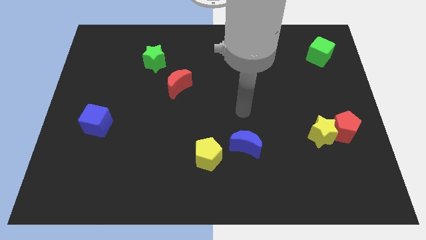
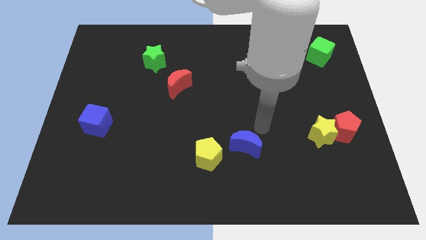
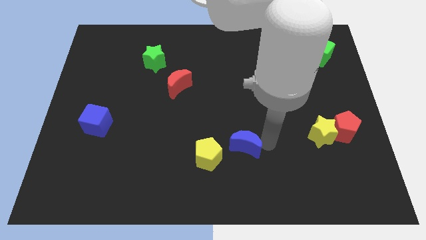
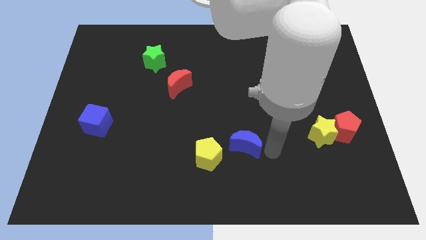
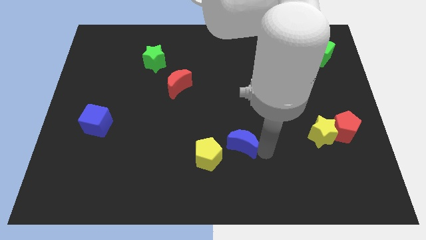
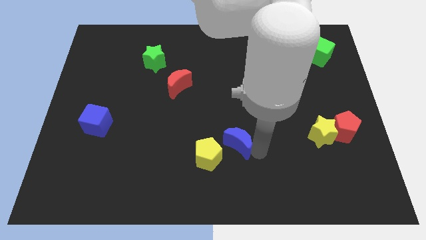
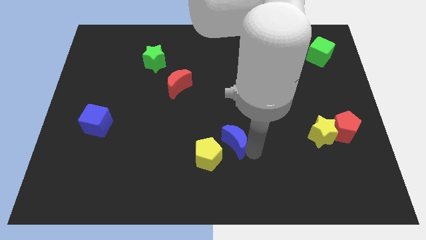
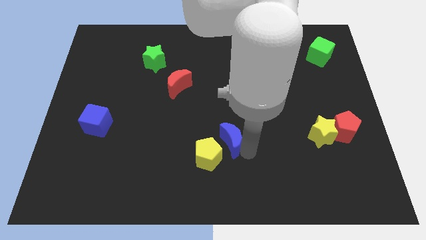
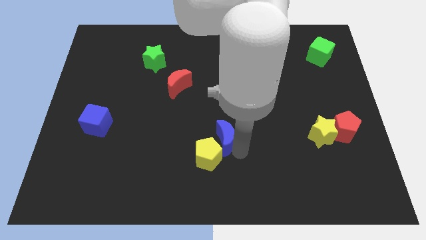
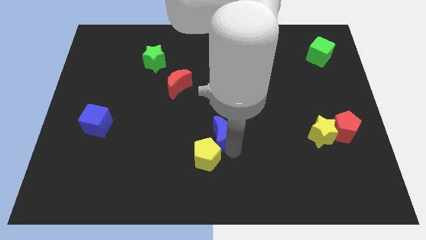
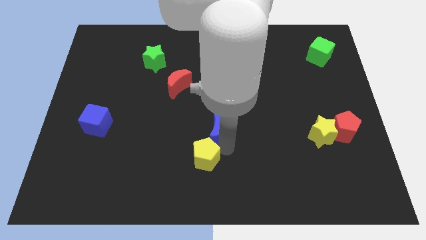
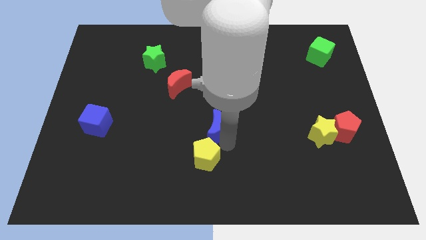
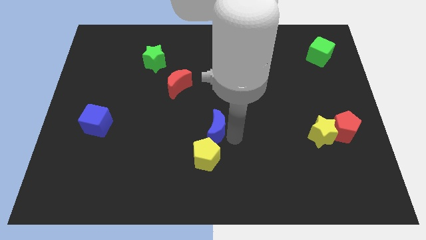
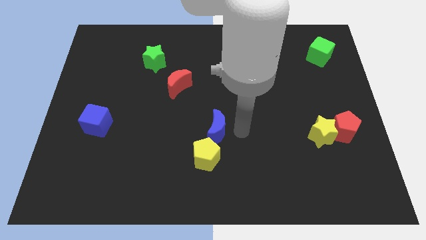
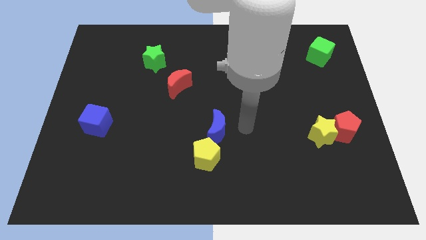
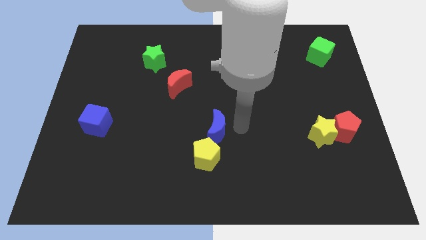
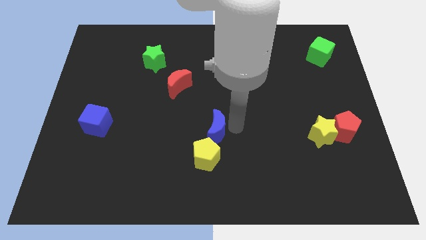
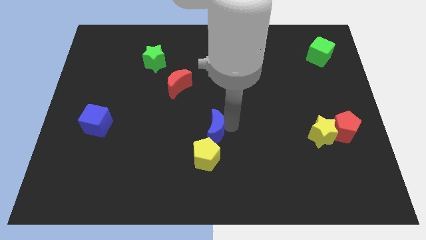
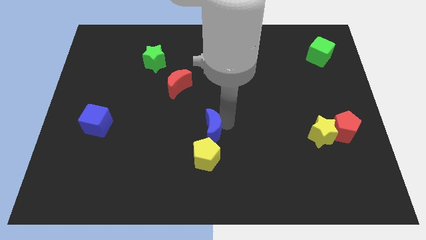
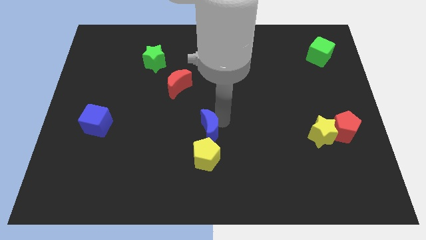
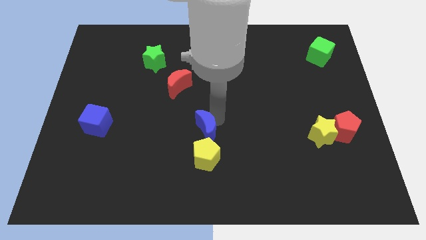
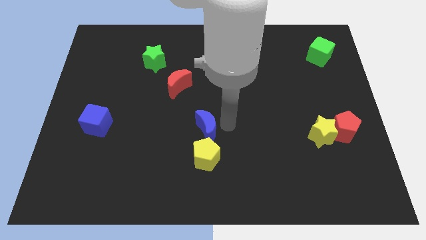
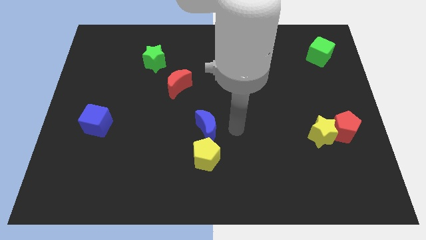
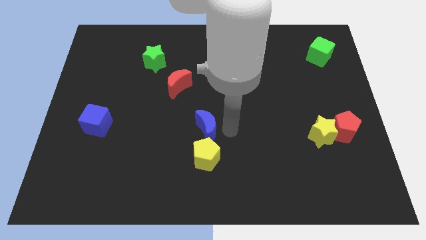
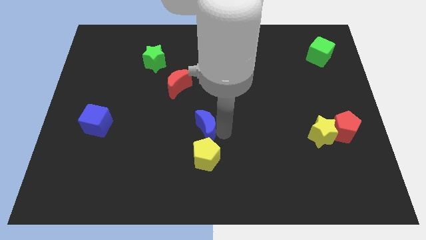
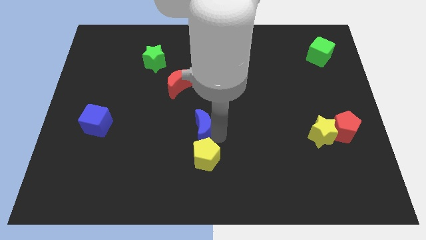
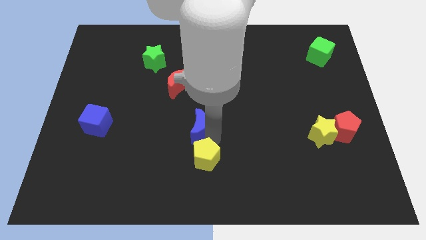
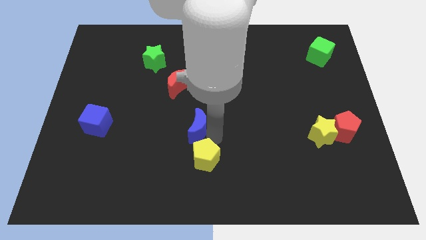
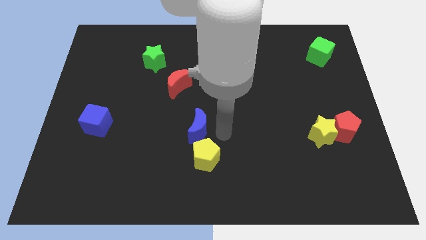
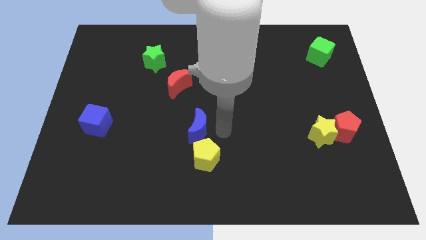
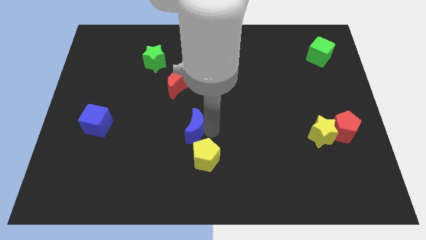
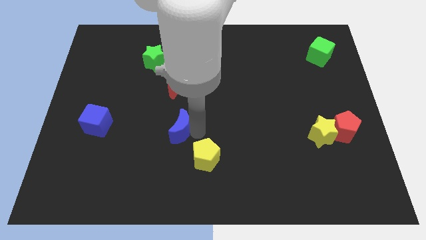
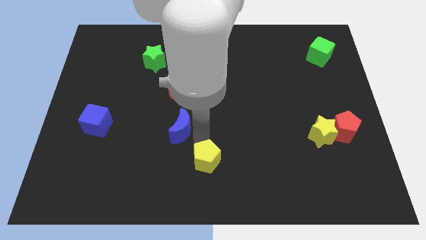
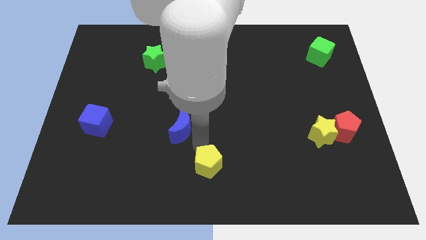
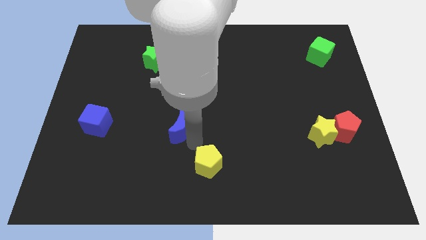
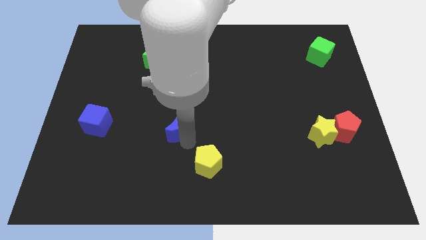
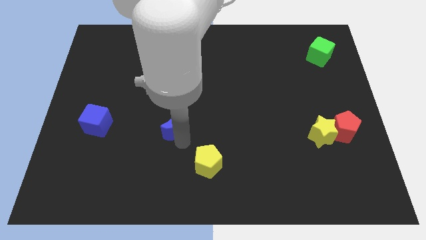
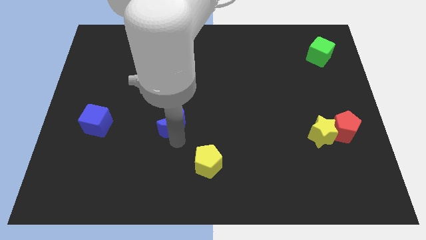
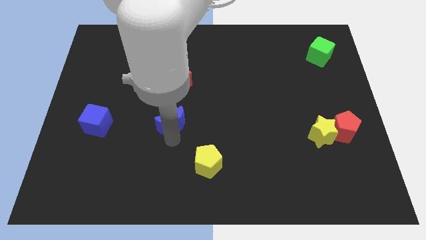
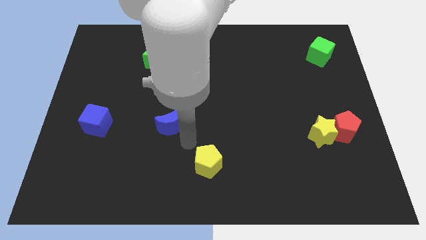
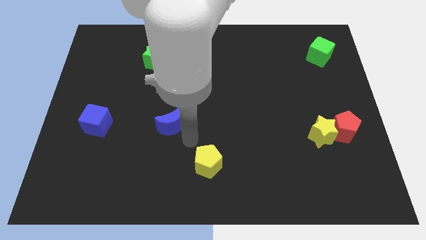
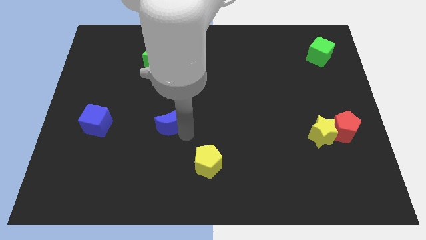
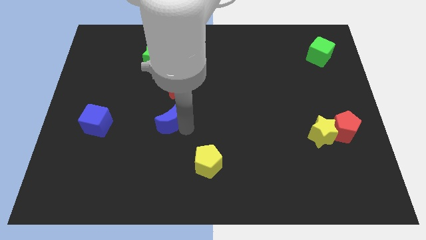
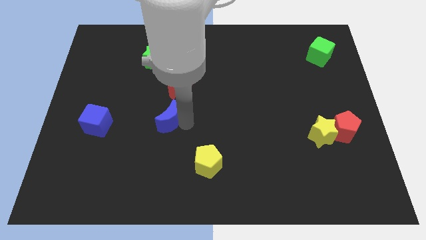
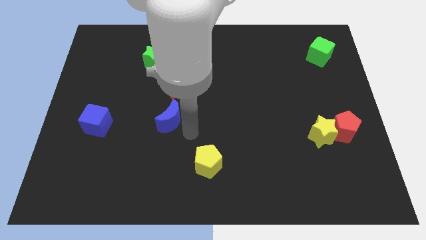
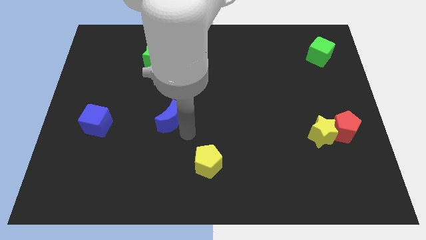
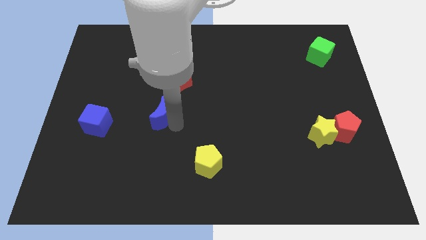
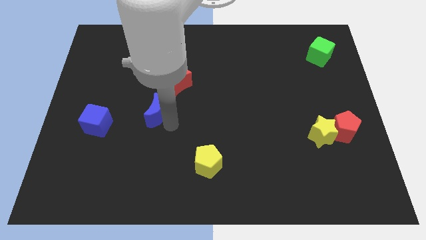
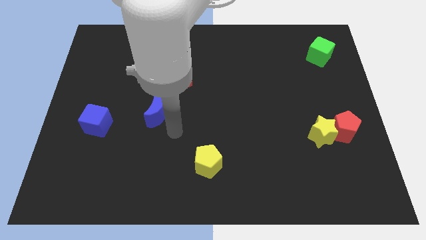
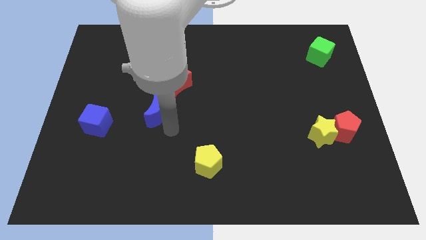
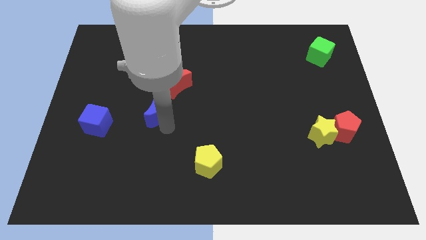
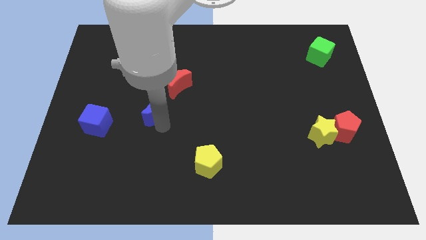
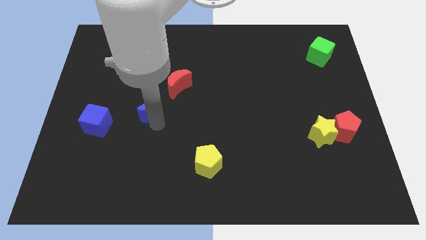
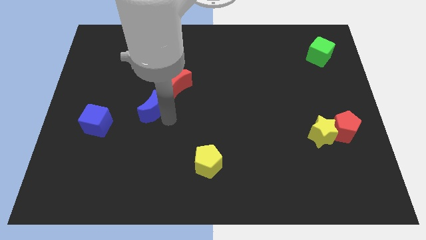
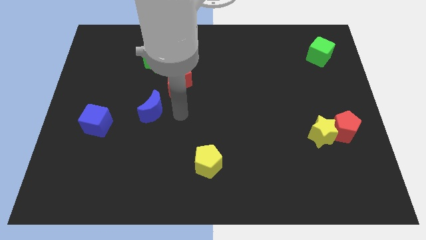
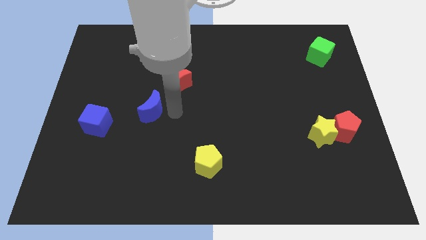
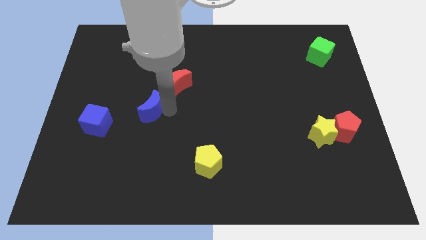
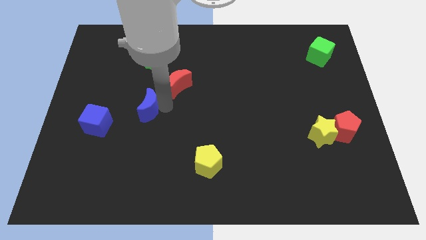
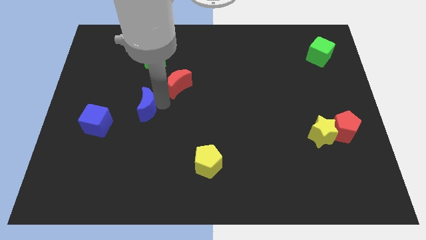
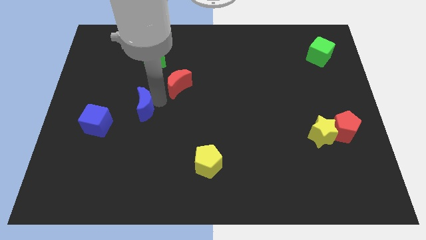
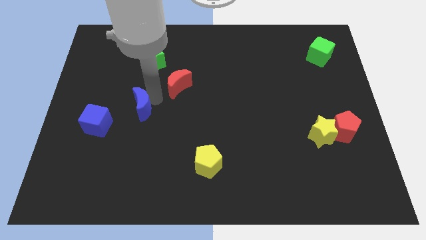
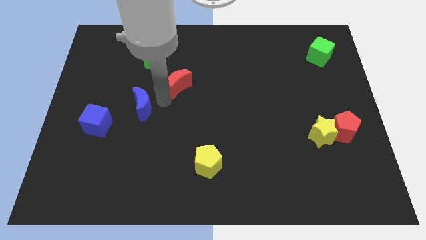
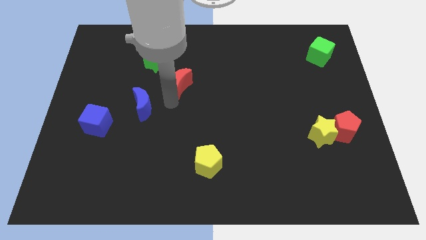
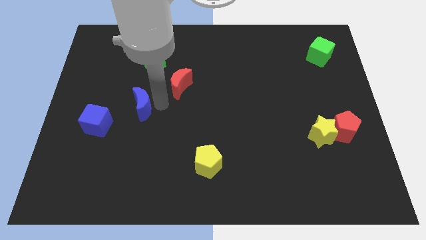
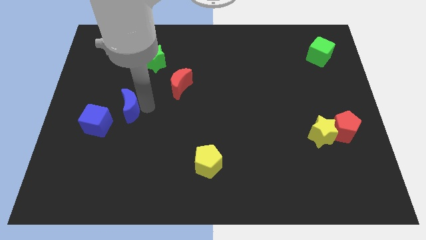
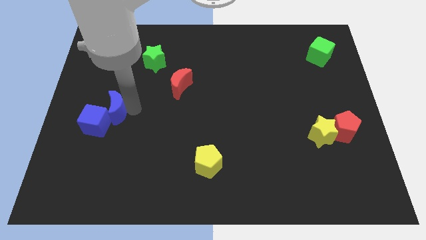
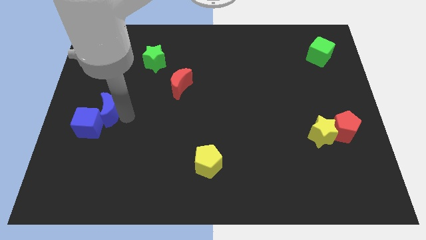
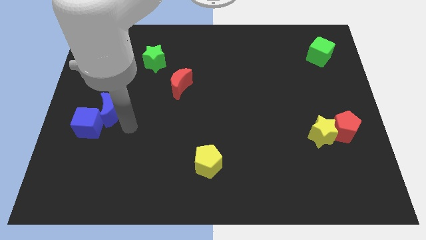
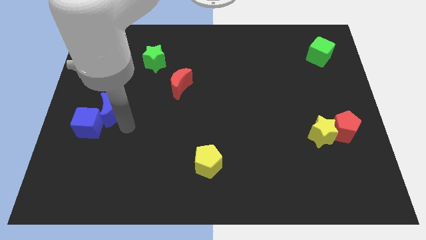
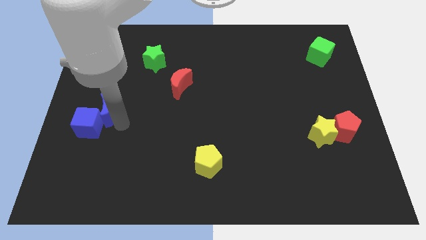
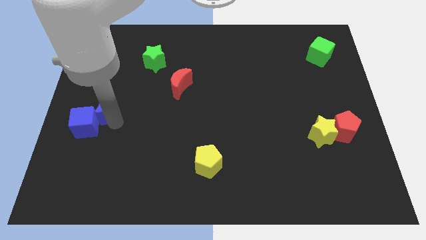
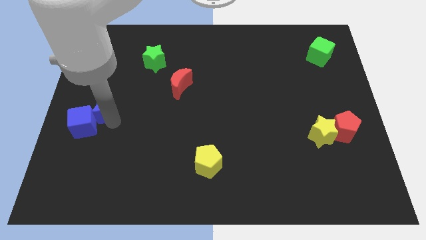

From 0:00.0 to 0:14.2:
put the blue moon to the left side of the board
